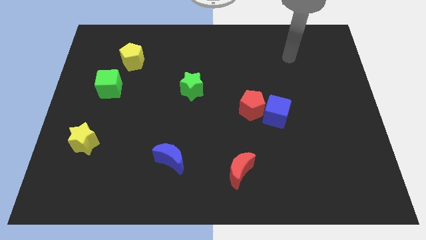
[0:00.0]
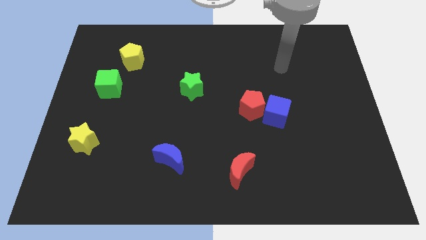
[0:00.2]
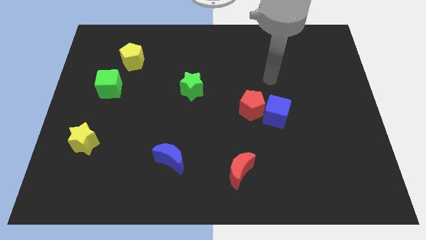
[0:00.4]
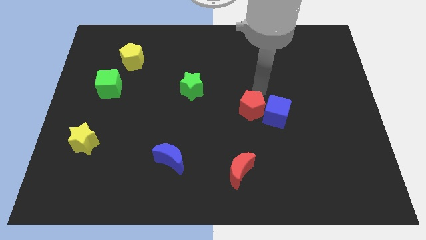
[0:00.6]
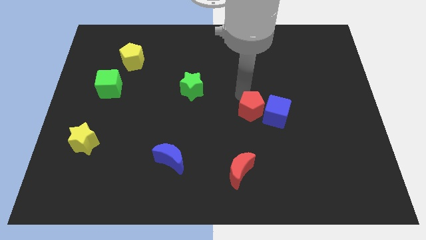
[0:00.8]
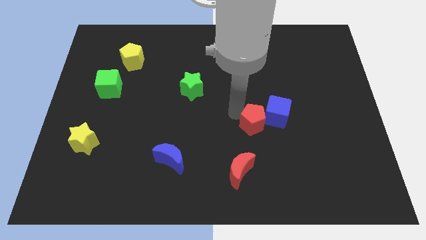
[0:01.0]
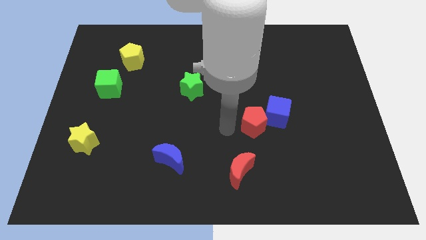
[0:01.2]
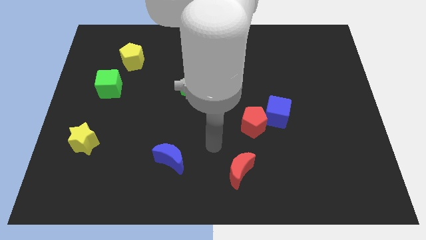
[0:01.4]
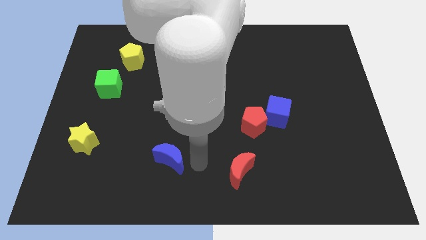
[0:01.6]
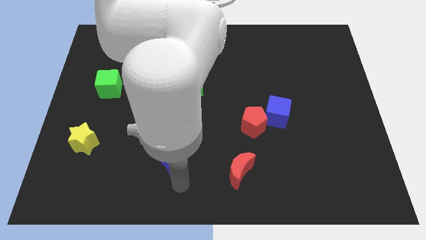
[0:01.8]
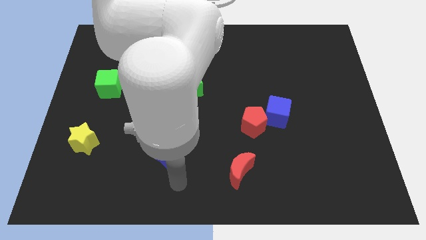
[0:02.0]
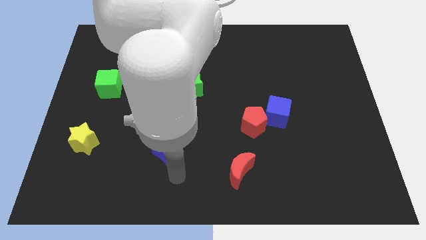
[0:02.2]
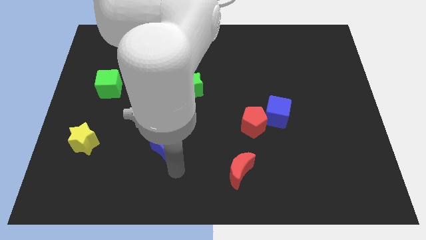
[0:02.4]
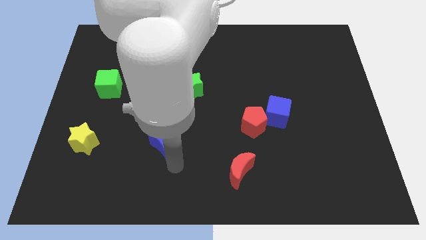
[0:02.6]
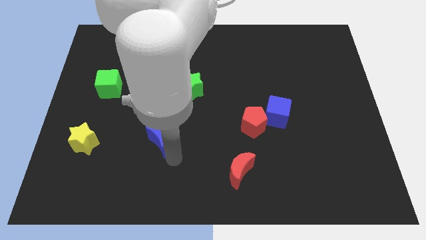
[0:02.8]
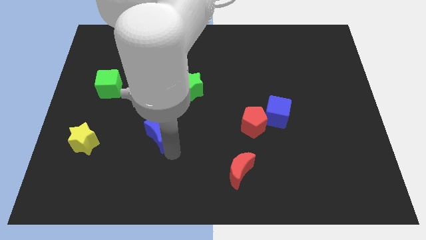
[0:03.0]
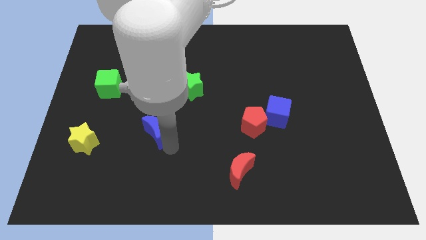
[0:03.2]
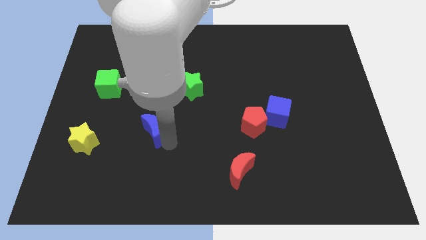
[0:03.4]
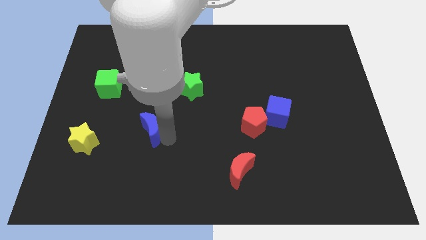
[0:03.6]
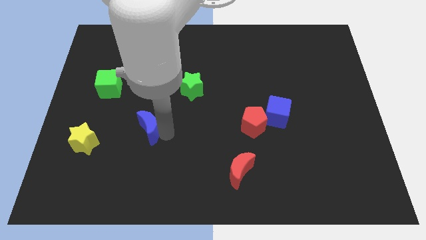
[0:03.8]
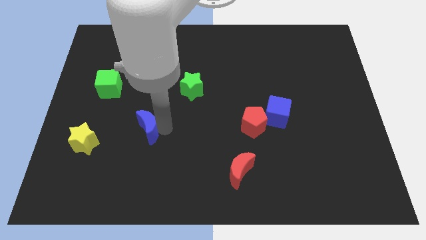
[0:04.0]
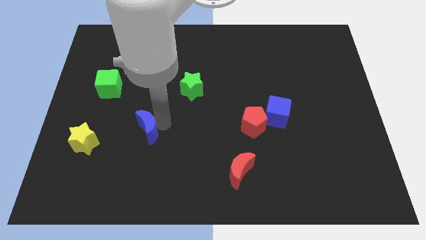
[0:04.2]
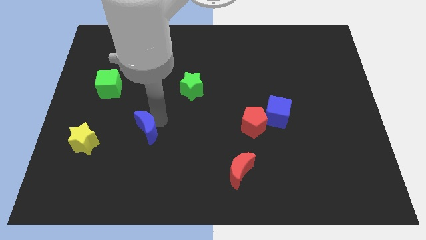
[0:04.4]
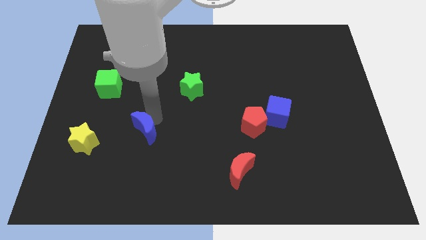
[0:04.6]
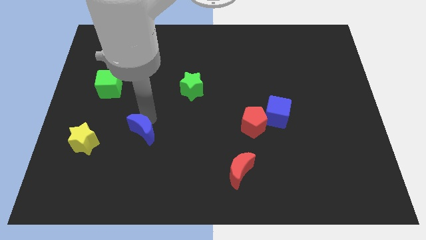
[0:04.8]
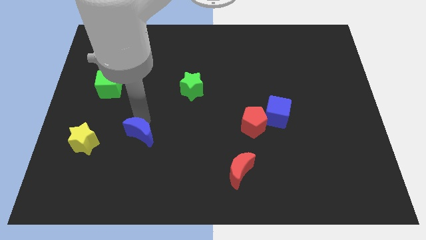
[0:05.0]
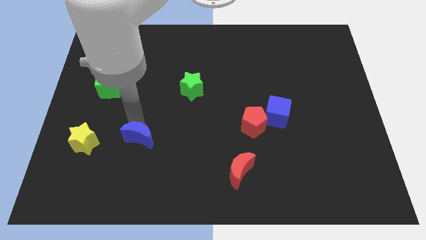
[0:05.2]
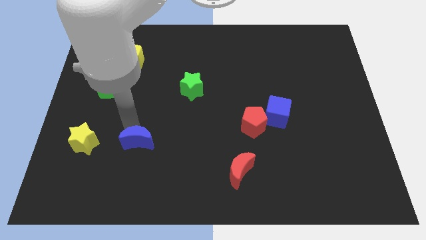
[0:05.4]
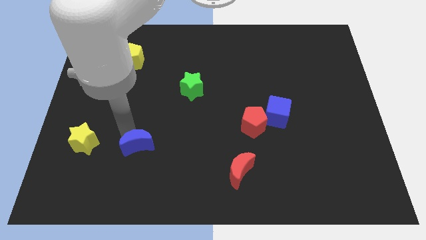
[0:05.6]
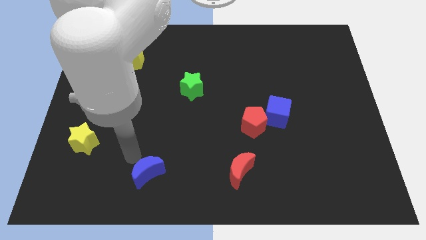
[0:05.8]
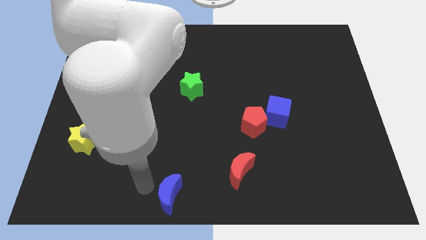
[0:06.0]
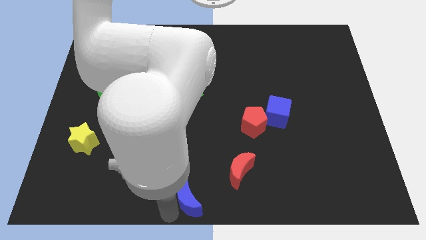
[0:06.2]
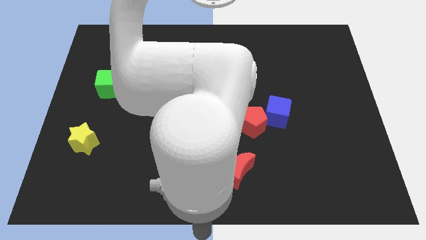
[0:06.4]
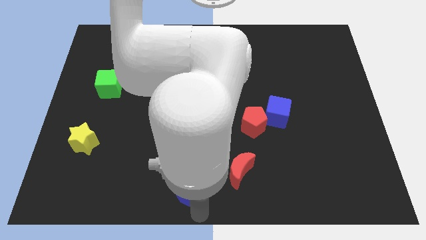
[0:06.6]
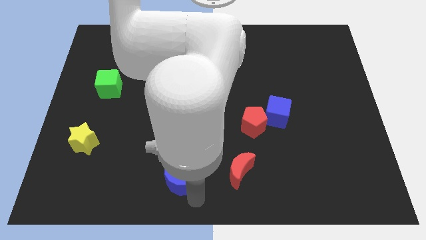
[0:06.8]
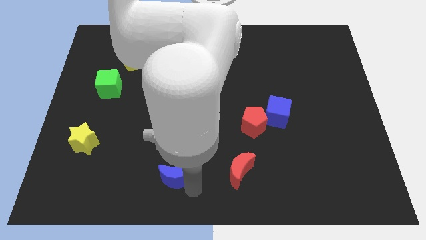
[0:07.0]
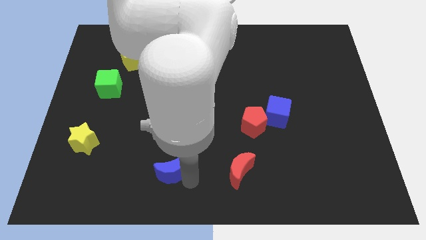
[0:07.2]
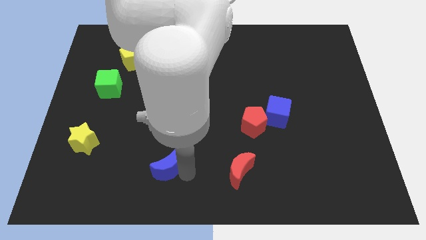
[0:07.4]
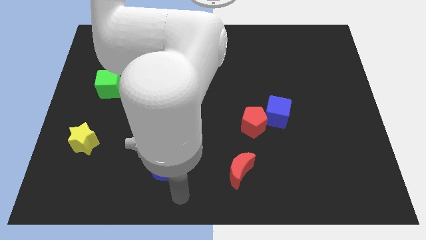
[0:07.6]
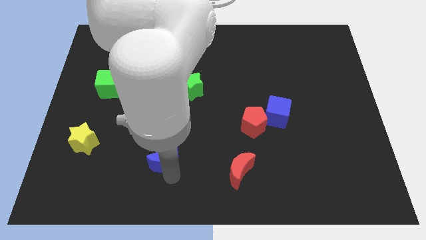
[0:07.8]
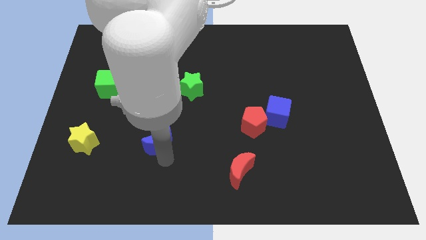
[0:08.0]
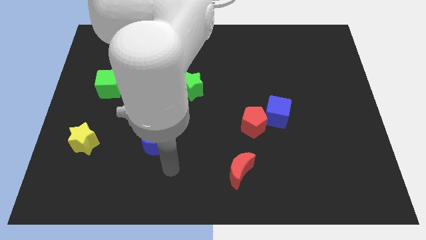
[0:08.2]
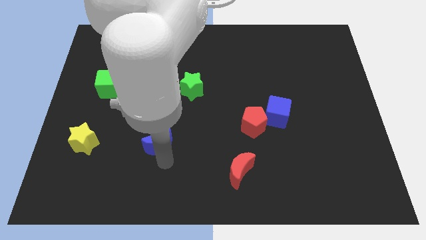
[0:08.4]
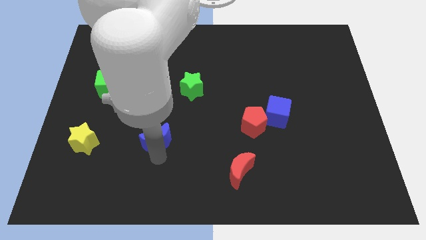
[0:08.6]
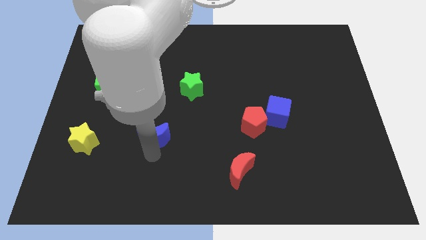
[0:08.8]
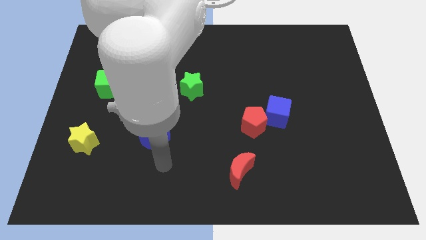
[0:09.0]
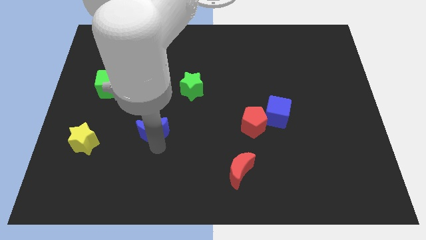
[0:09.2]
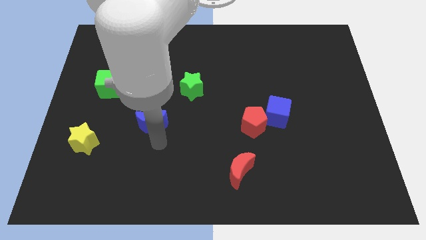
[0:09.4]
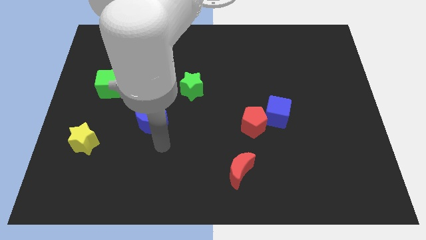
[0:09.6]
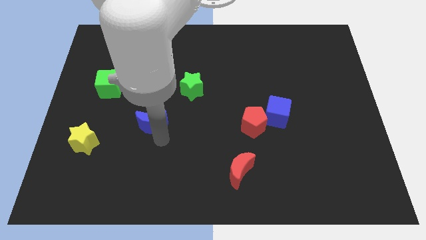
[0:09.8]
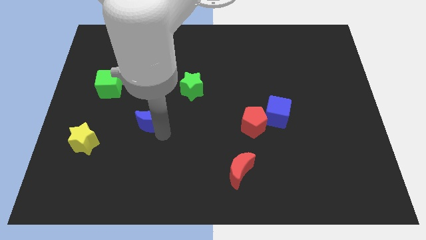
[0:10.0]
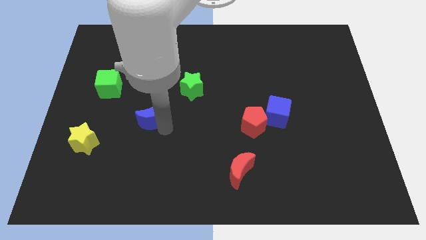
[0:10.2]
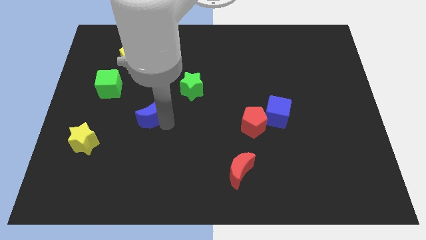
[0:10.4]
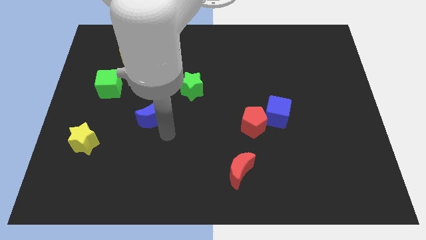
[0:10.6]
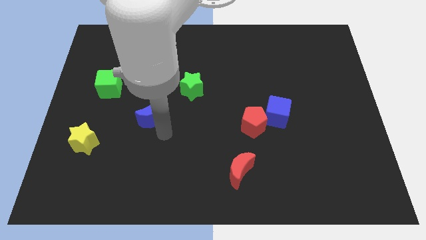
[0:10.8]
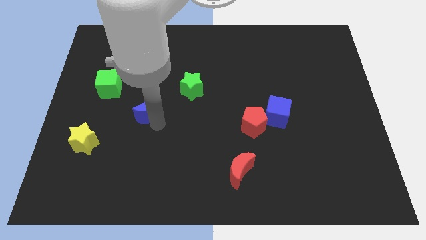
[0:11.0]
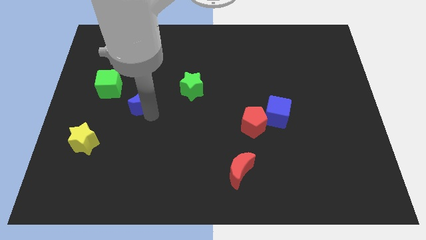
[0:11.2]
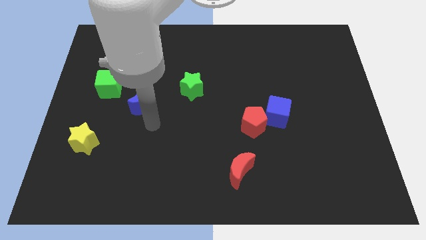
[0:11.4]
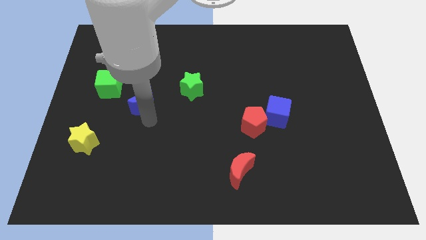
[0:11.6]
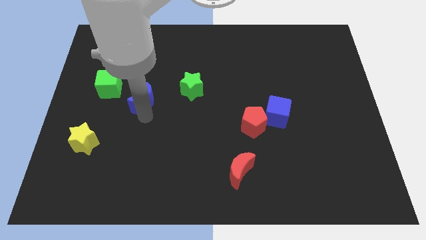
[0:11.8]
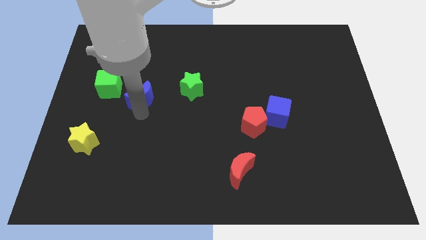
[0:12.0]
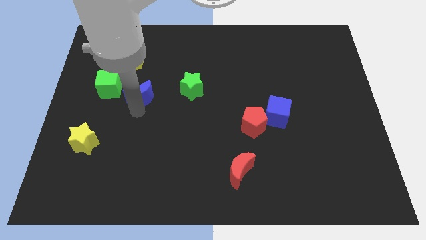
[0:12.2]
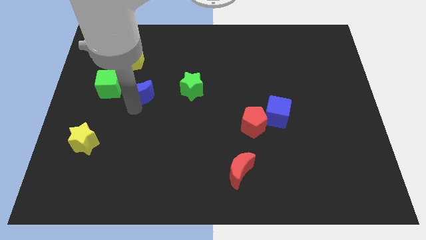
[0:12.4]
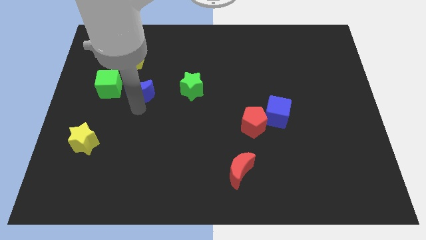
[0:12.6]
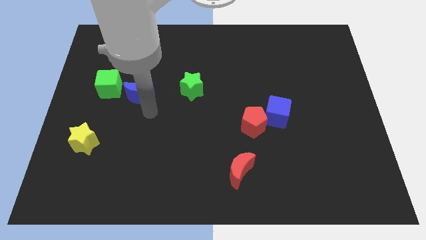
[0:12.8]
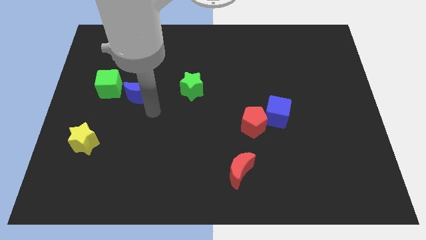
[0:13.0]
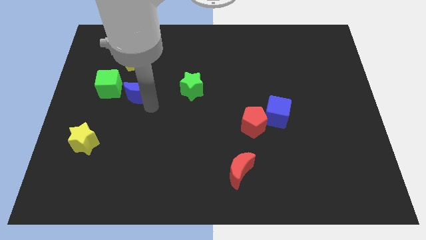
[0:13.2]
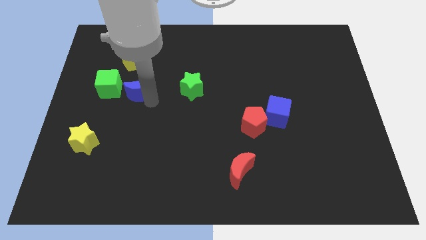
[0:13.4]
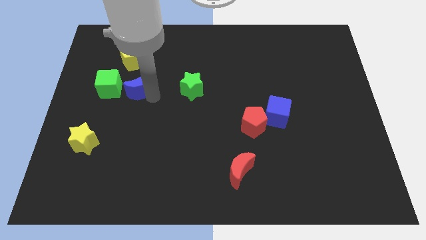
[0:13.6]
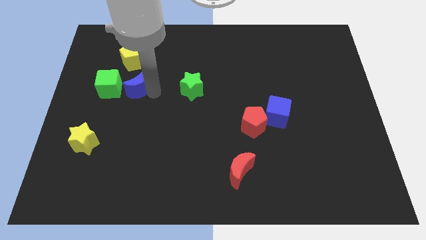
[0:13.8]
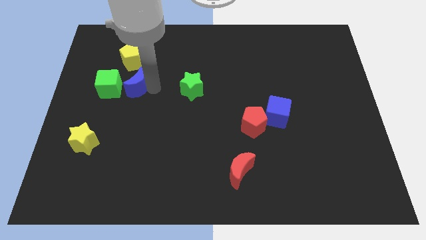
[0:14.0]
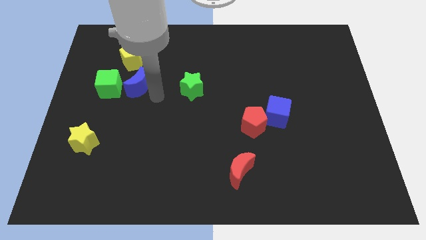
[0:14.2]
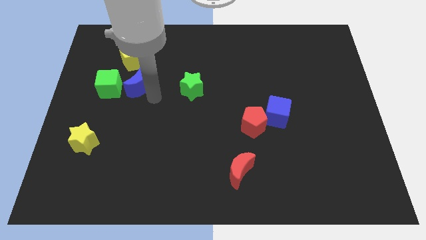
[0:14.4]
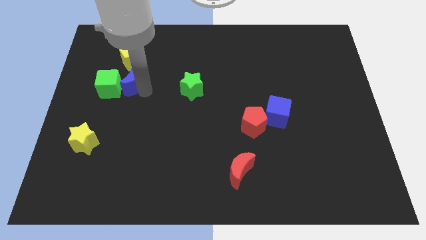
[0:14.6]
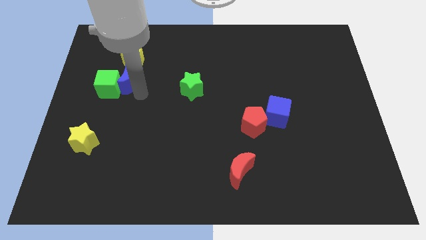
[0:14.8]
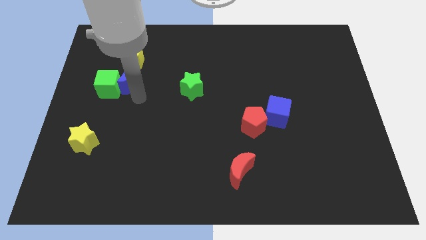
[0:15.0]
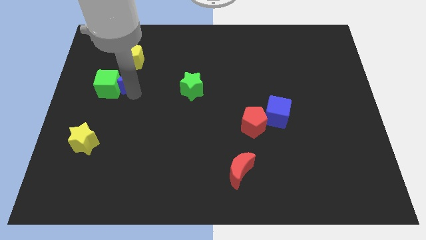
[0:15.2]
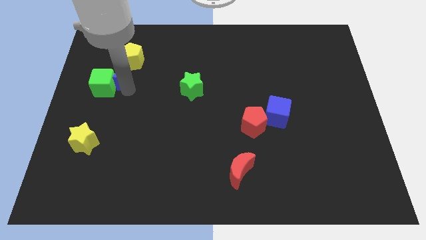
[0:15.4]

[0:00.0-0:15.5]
move the blue moon above the green cube
